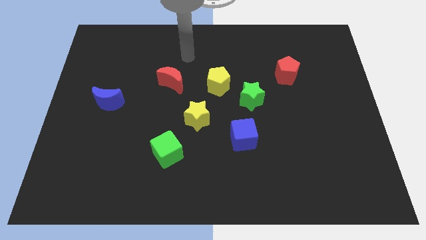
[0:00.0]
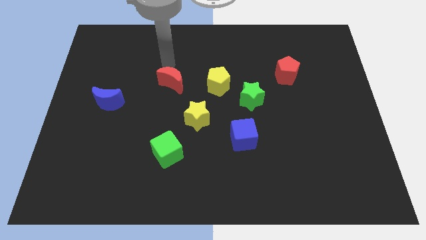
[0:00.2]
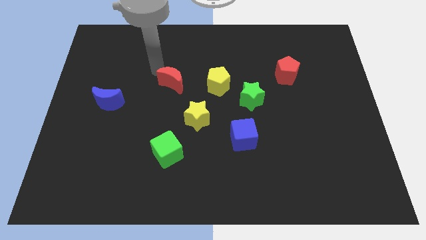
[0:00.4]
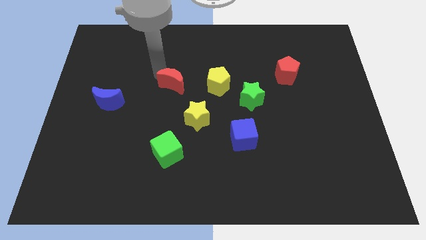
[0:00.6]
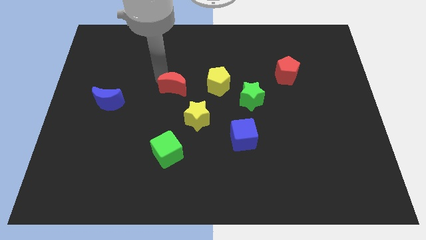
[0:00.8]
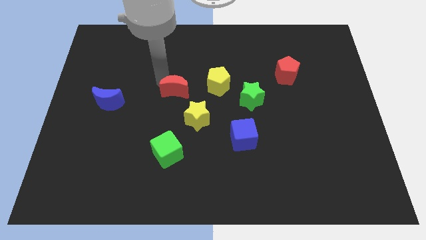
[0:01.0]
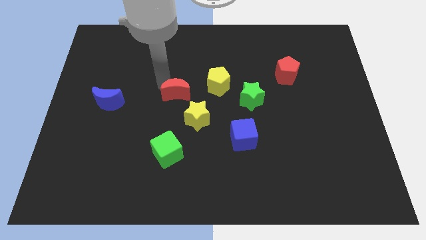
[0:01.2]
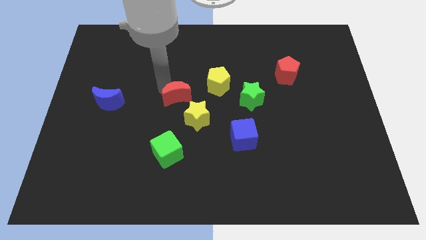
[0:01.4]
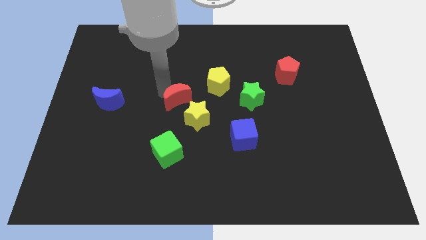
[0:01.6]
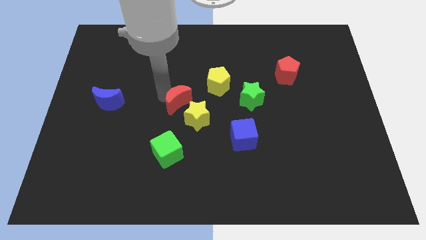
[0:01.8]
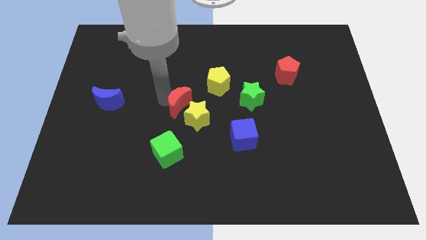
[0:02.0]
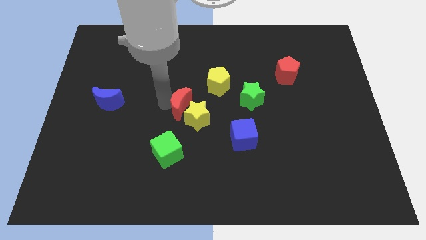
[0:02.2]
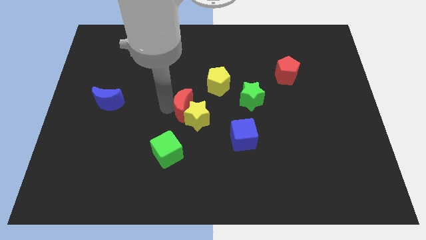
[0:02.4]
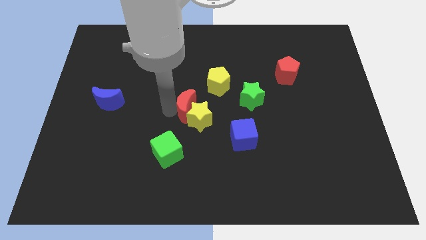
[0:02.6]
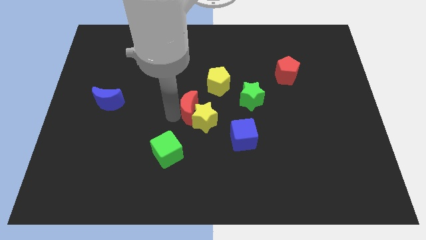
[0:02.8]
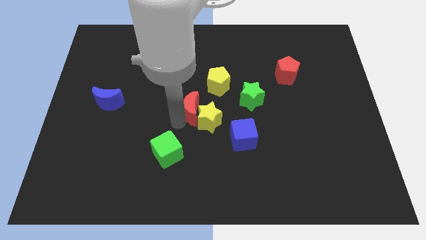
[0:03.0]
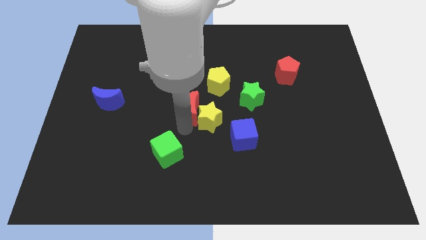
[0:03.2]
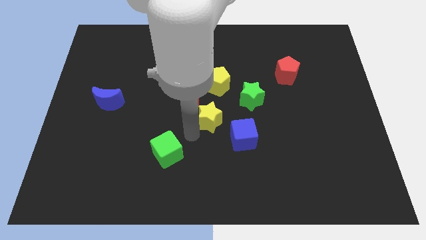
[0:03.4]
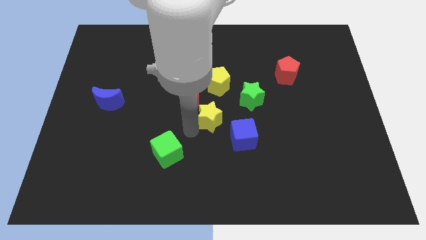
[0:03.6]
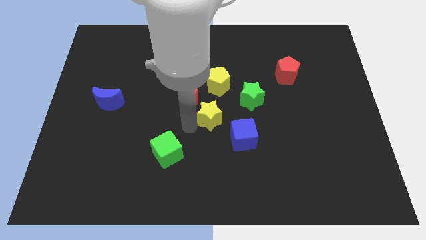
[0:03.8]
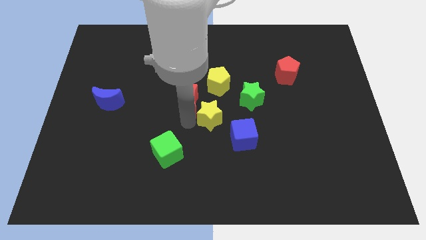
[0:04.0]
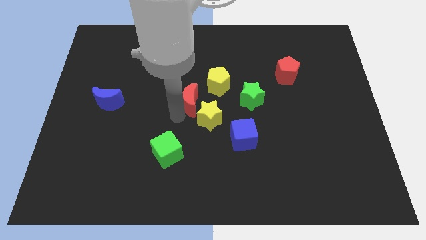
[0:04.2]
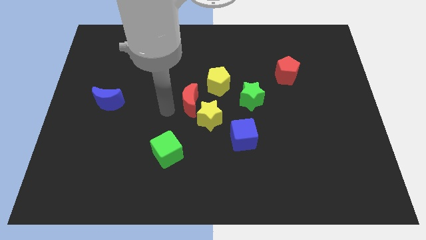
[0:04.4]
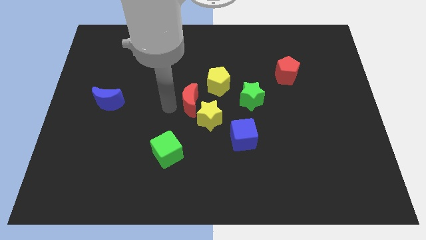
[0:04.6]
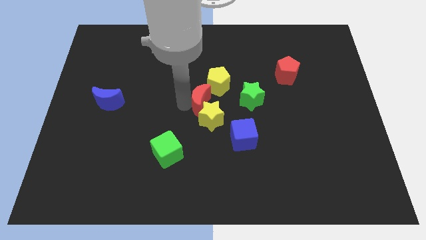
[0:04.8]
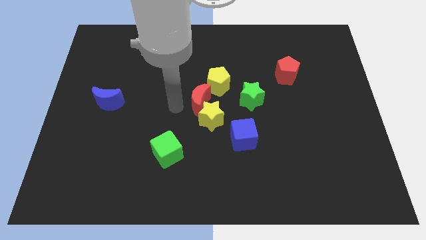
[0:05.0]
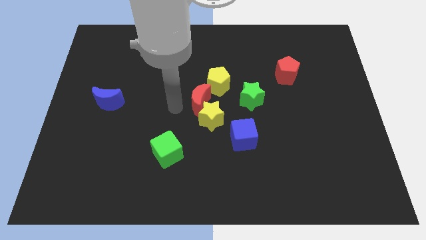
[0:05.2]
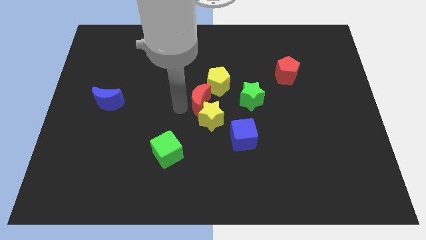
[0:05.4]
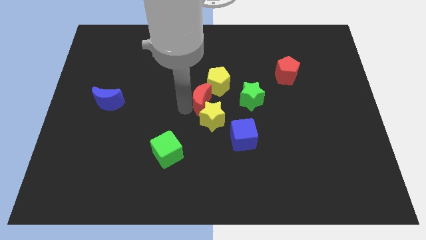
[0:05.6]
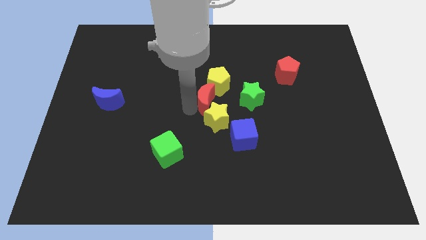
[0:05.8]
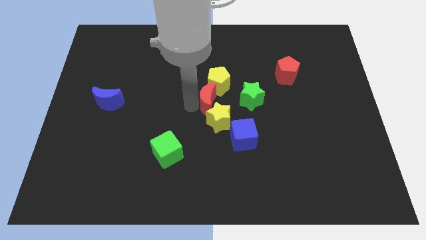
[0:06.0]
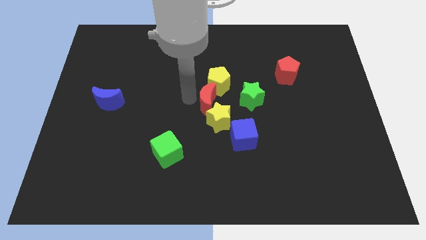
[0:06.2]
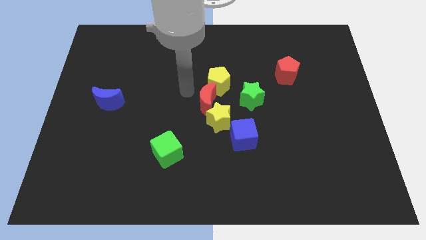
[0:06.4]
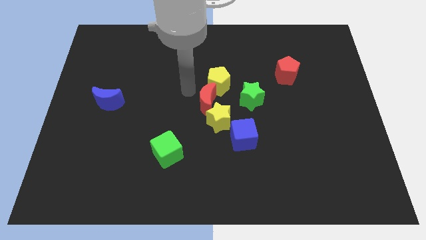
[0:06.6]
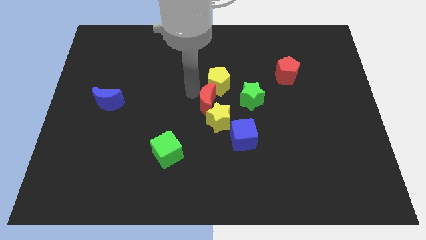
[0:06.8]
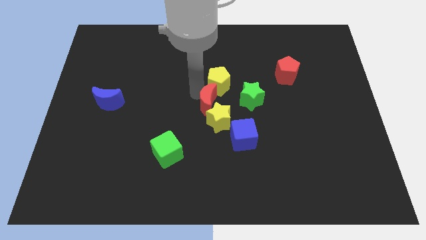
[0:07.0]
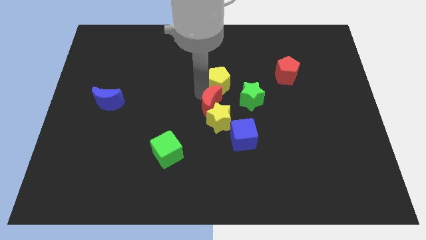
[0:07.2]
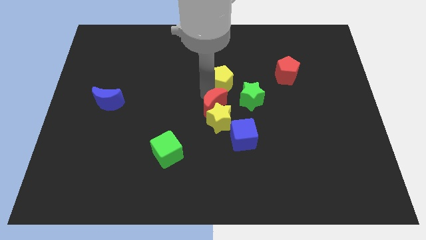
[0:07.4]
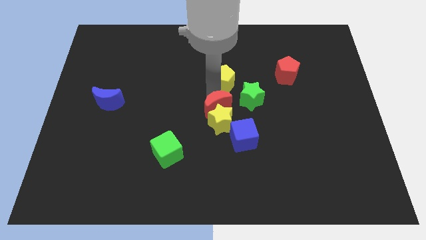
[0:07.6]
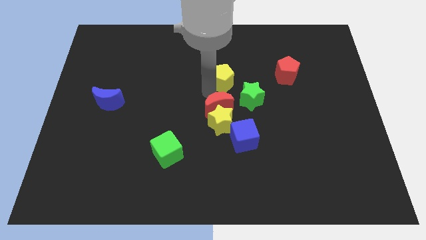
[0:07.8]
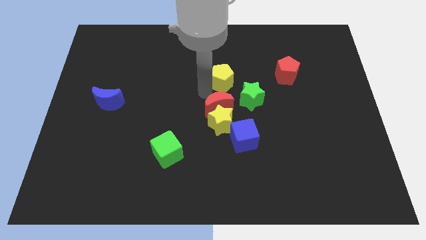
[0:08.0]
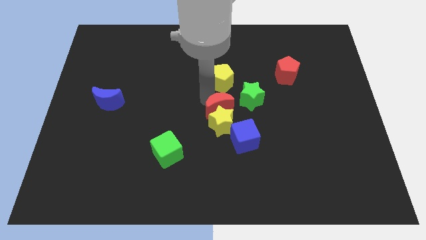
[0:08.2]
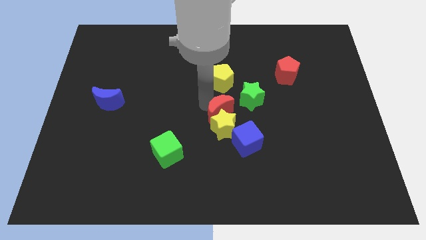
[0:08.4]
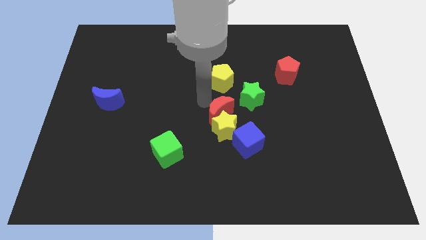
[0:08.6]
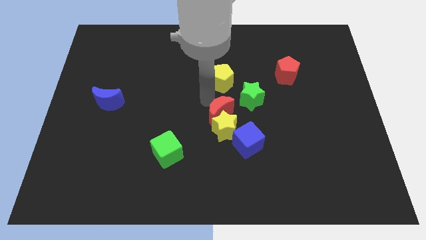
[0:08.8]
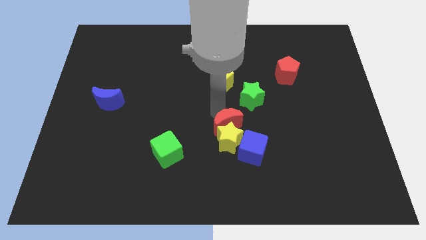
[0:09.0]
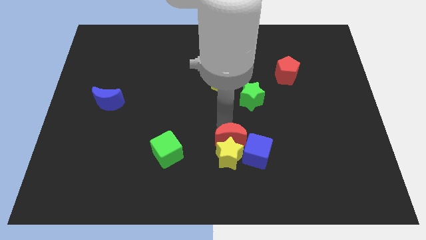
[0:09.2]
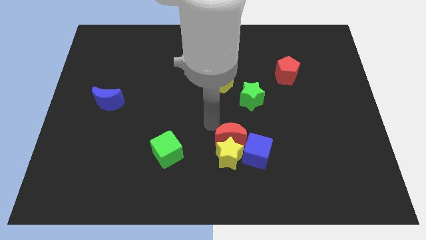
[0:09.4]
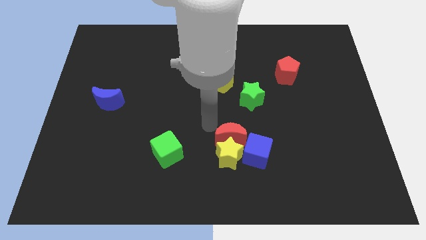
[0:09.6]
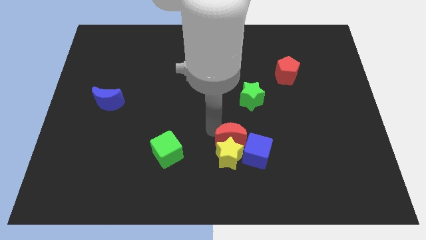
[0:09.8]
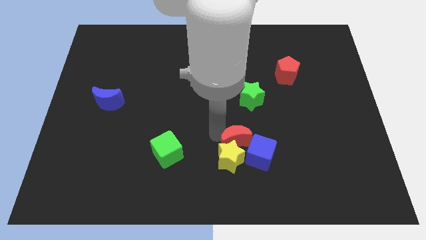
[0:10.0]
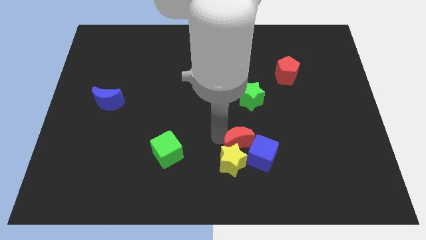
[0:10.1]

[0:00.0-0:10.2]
move the red moon close to the blue cube

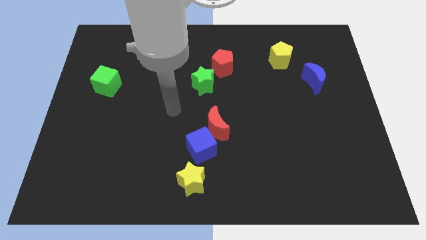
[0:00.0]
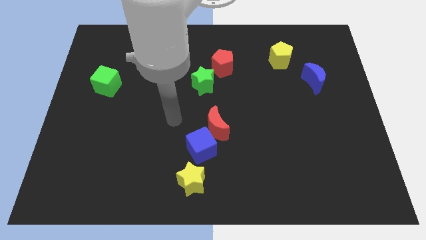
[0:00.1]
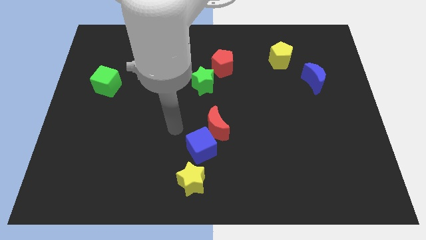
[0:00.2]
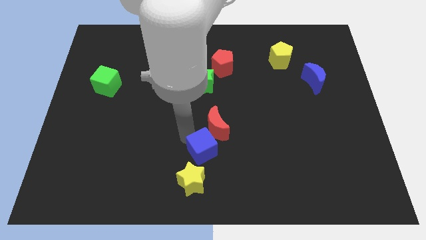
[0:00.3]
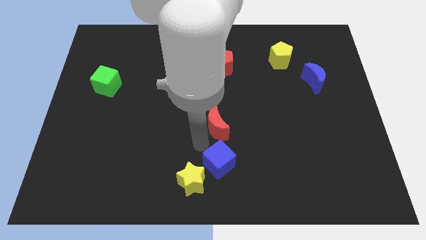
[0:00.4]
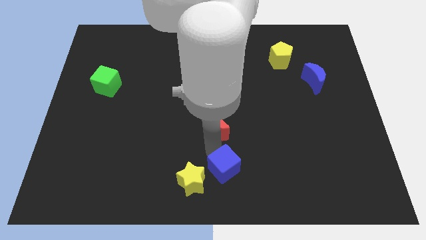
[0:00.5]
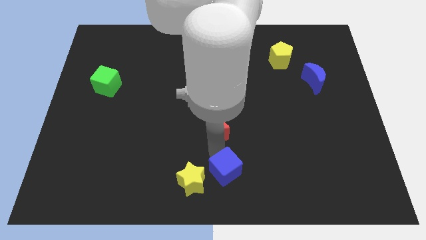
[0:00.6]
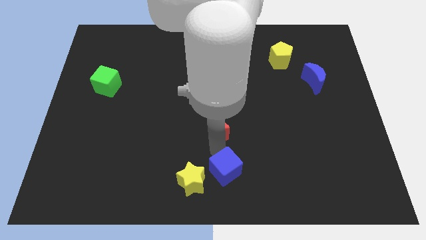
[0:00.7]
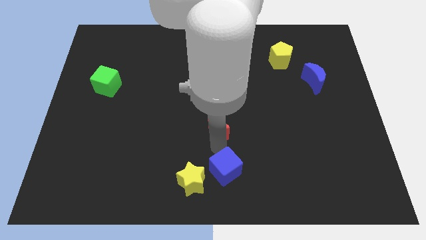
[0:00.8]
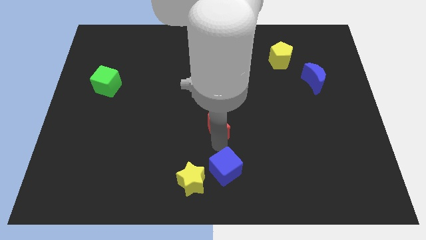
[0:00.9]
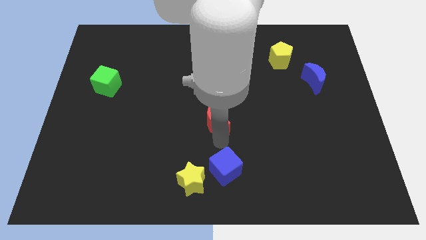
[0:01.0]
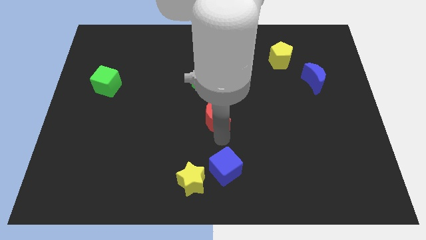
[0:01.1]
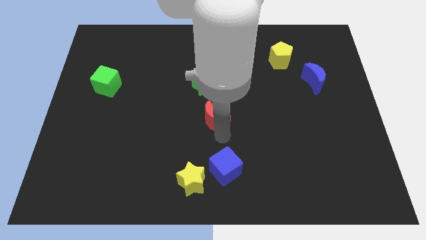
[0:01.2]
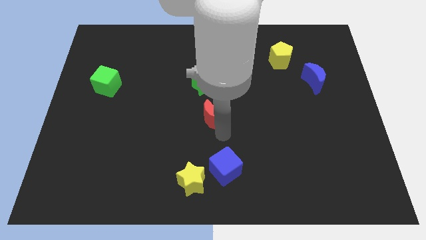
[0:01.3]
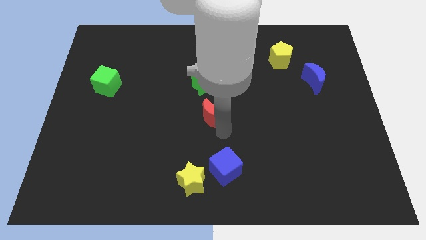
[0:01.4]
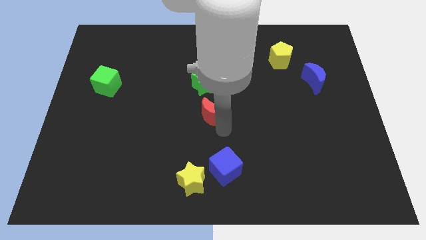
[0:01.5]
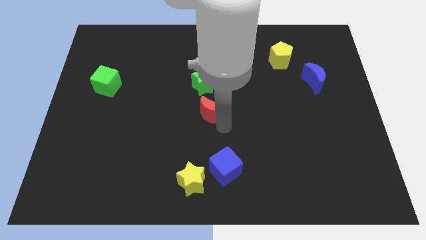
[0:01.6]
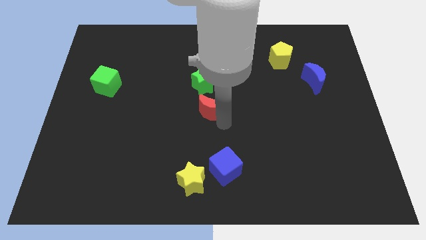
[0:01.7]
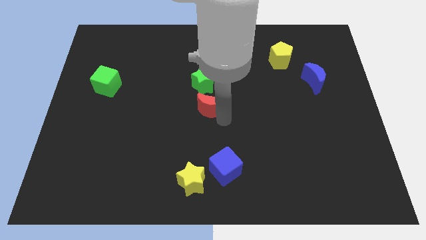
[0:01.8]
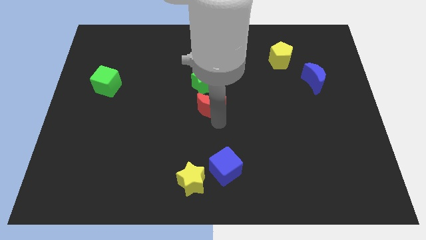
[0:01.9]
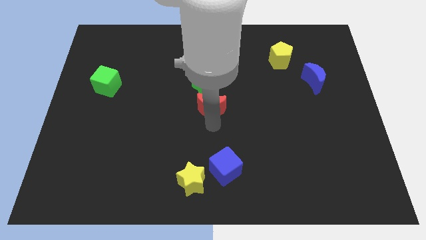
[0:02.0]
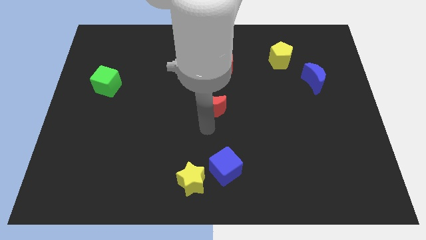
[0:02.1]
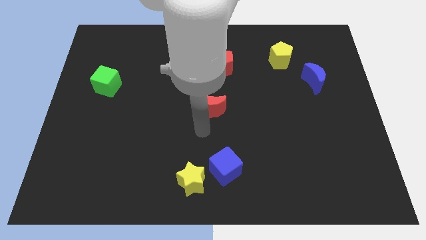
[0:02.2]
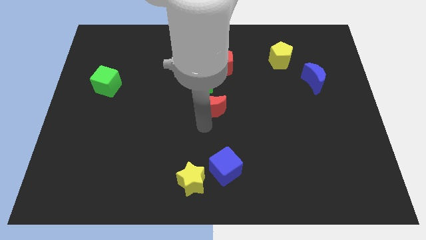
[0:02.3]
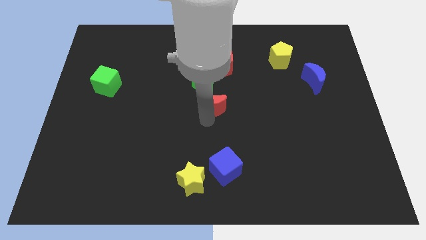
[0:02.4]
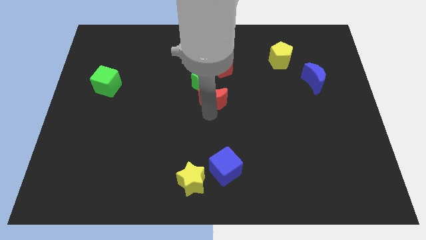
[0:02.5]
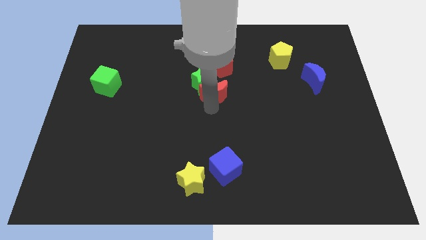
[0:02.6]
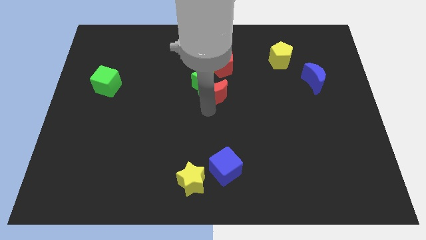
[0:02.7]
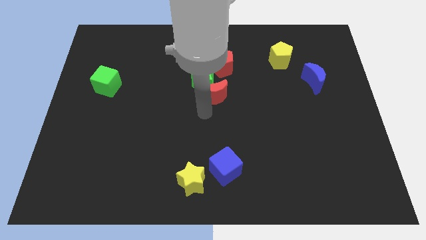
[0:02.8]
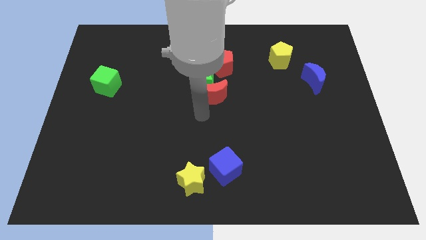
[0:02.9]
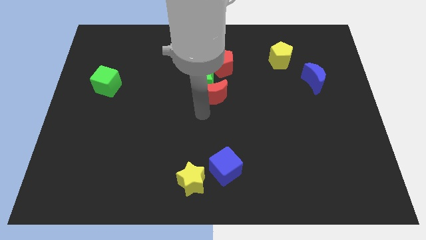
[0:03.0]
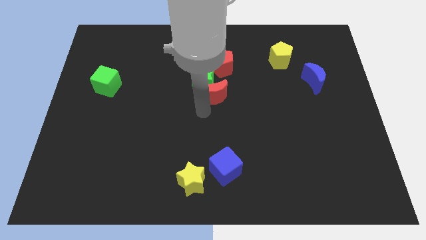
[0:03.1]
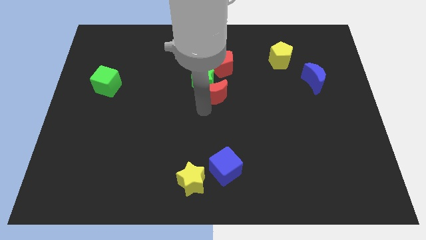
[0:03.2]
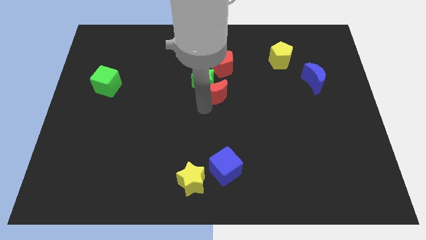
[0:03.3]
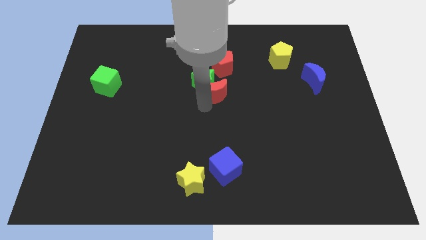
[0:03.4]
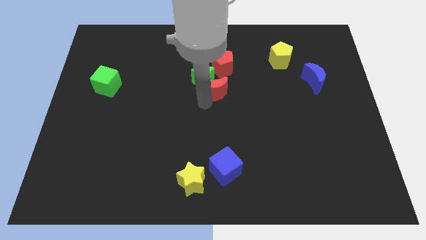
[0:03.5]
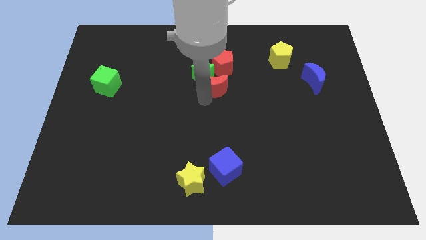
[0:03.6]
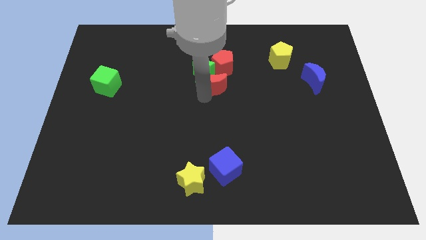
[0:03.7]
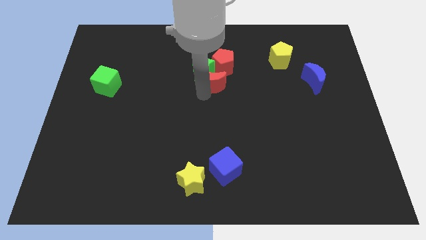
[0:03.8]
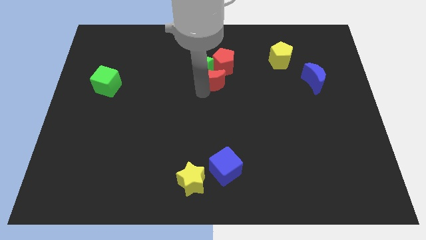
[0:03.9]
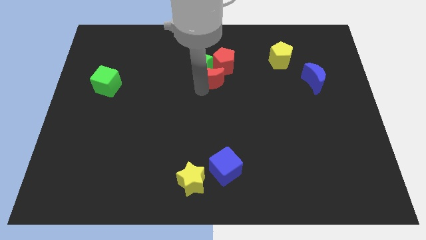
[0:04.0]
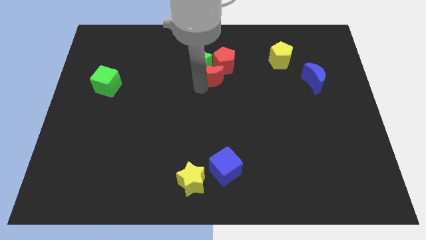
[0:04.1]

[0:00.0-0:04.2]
slide the red moon to the red pentagon
